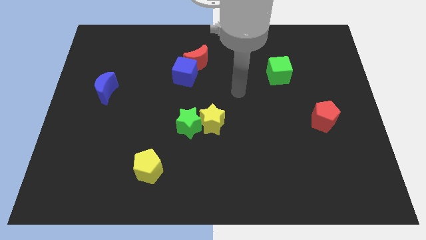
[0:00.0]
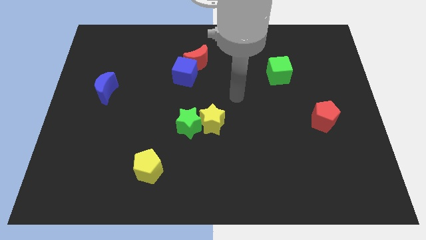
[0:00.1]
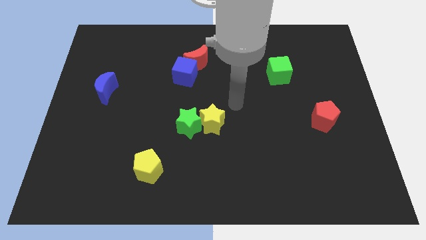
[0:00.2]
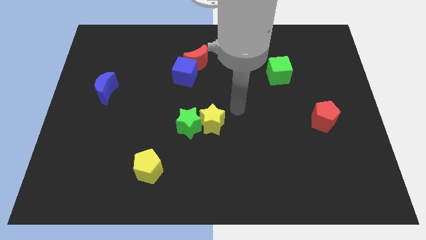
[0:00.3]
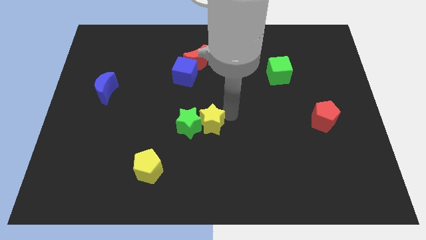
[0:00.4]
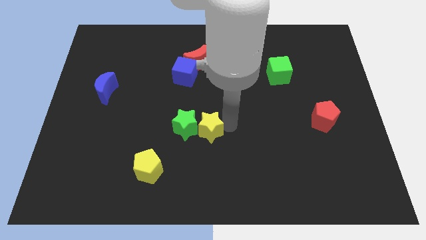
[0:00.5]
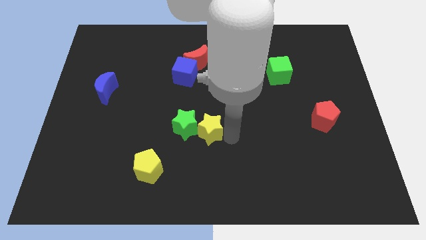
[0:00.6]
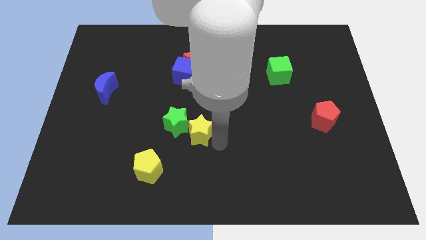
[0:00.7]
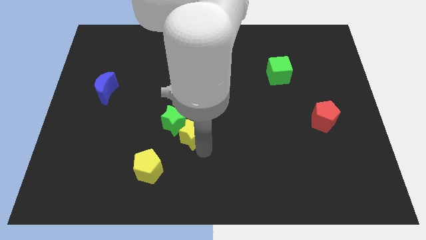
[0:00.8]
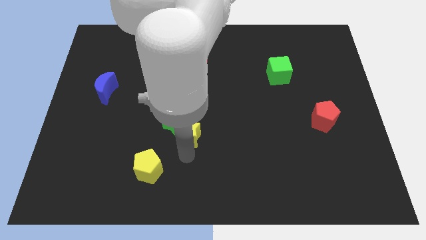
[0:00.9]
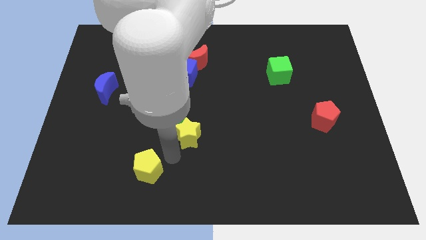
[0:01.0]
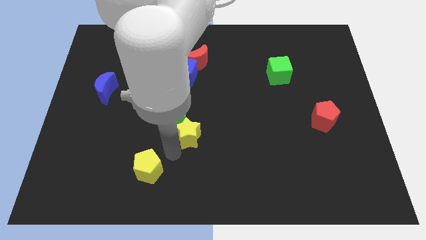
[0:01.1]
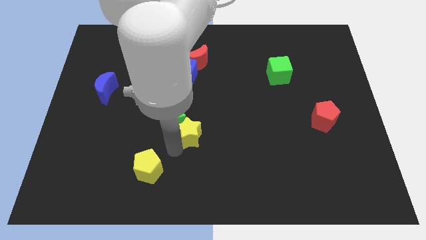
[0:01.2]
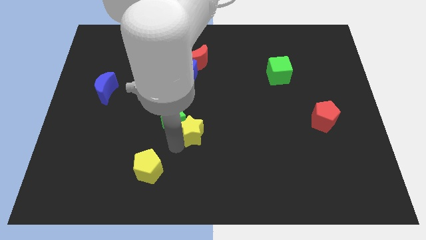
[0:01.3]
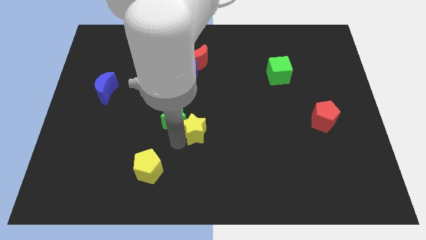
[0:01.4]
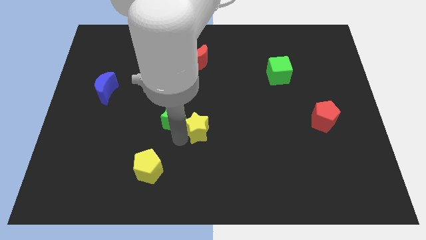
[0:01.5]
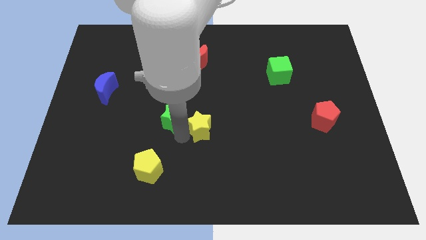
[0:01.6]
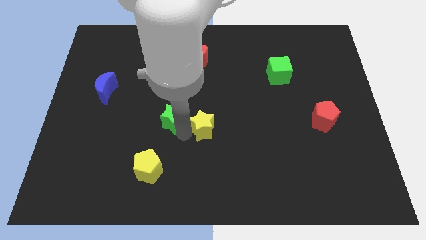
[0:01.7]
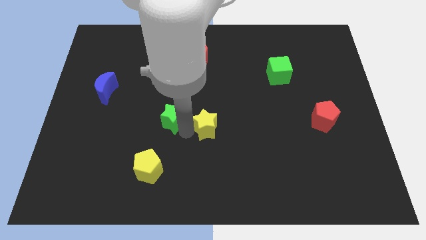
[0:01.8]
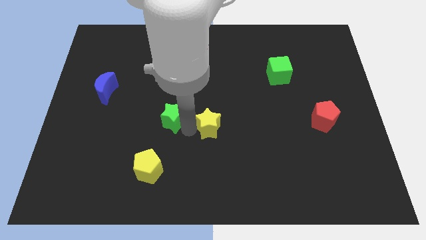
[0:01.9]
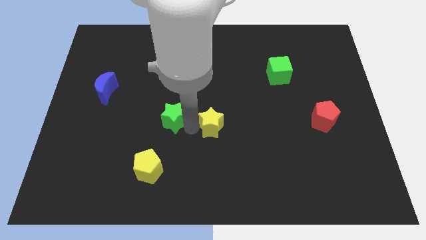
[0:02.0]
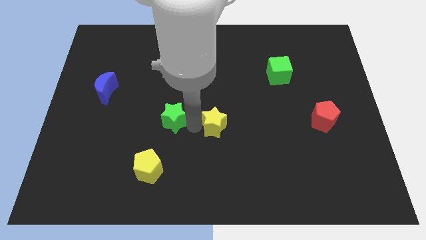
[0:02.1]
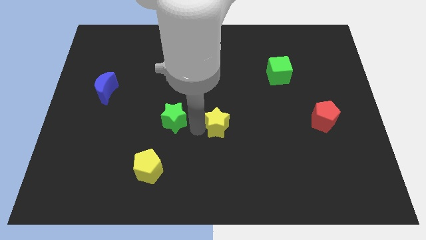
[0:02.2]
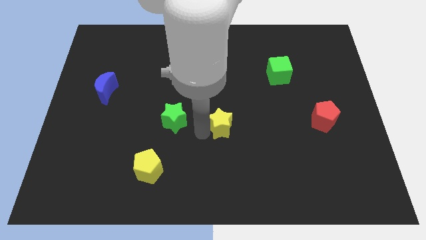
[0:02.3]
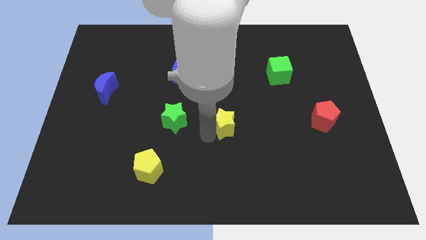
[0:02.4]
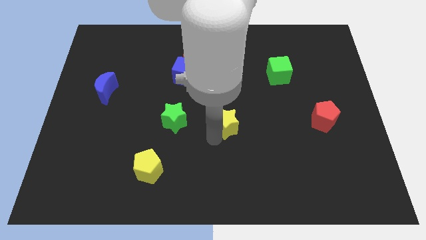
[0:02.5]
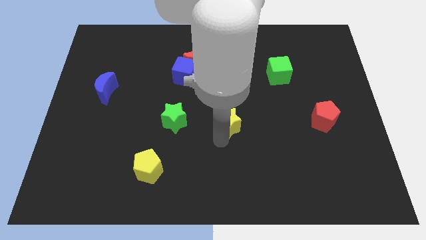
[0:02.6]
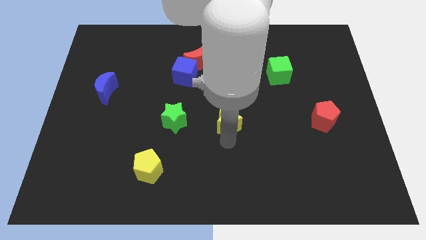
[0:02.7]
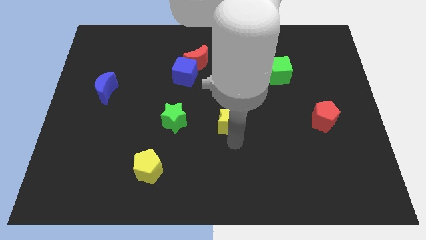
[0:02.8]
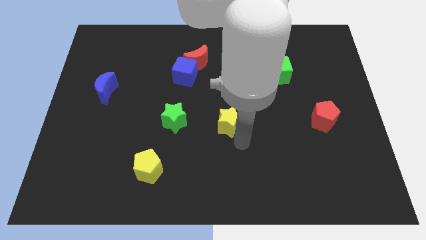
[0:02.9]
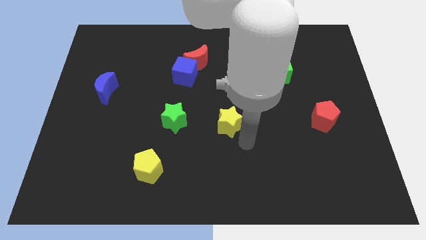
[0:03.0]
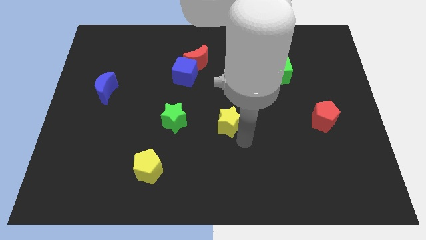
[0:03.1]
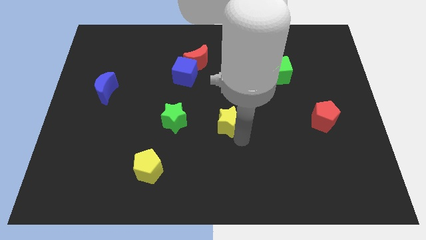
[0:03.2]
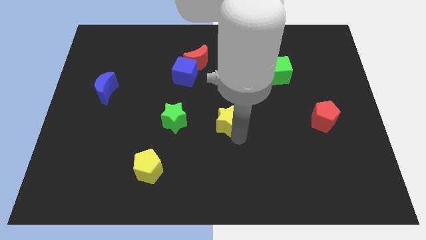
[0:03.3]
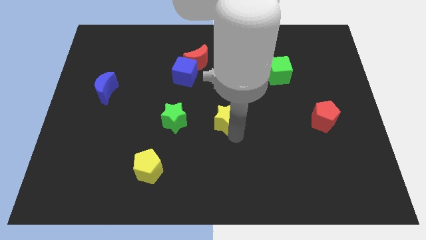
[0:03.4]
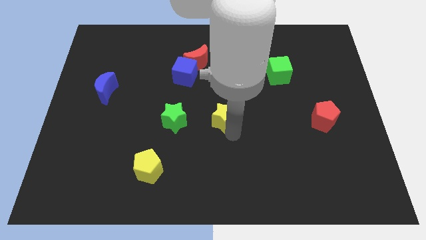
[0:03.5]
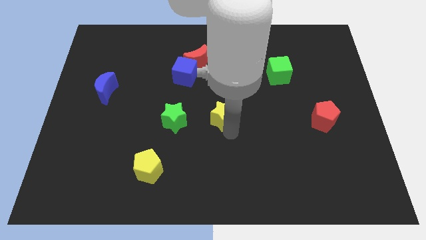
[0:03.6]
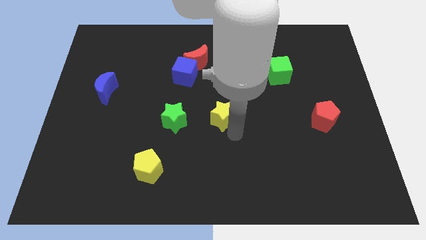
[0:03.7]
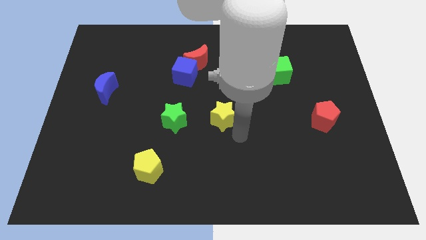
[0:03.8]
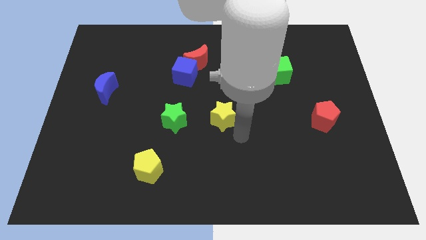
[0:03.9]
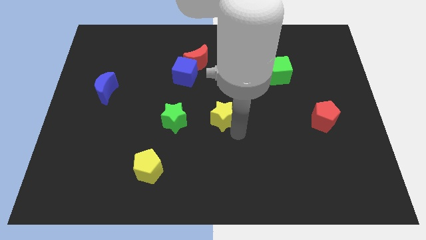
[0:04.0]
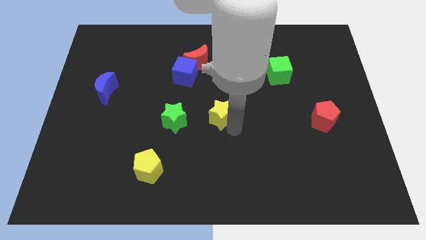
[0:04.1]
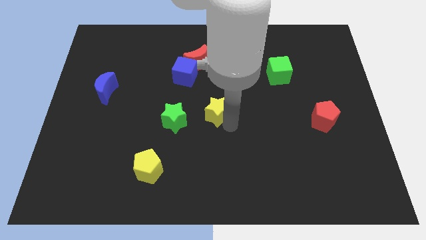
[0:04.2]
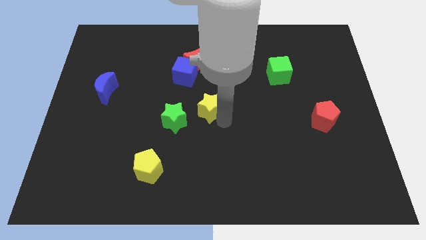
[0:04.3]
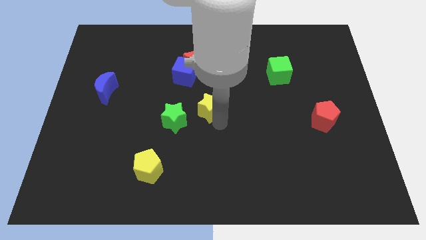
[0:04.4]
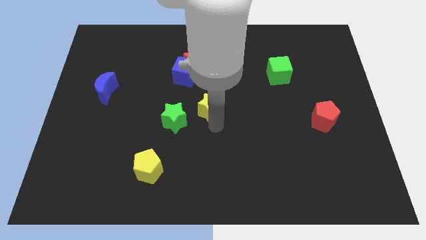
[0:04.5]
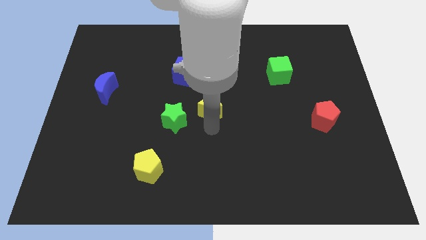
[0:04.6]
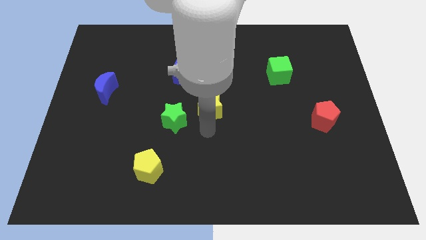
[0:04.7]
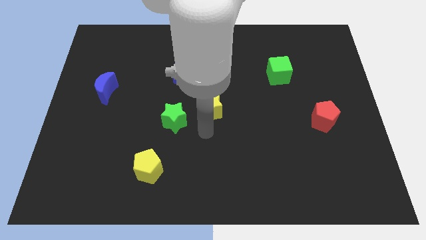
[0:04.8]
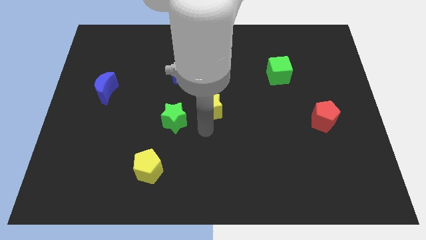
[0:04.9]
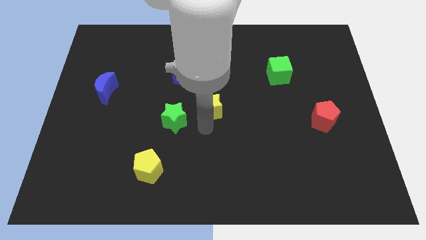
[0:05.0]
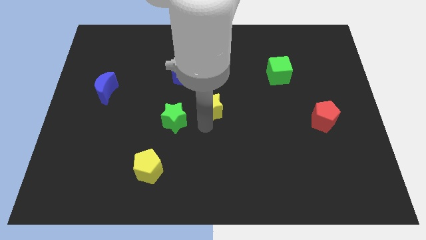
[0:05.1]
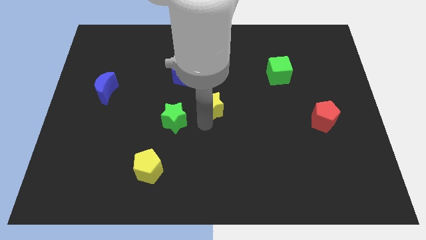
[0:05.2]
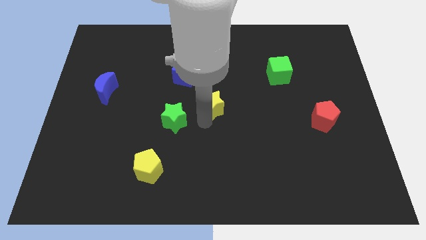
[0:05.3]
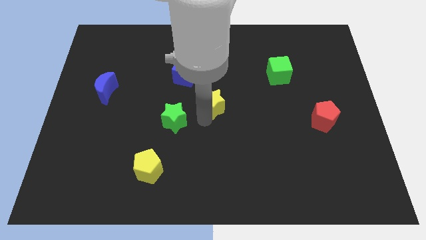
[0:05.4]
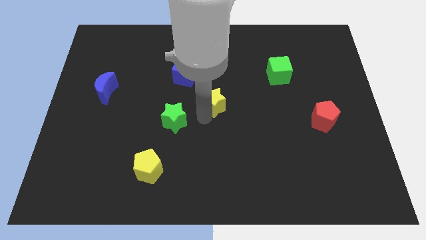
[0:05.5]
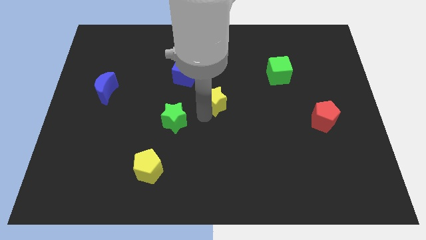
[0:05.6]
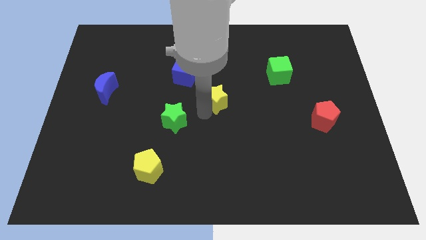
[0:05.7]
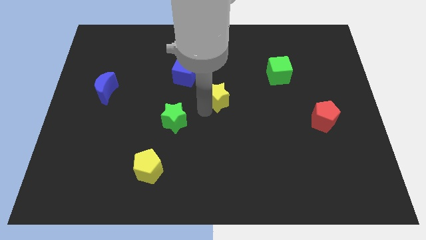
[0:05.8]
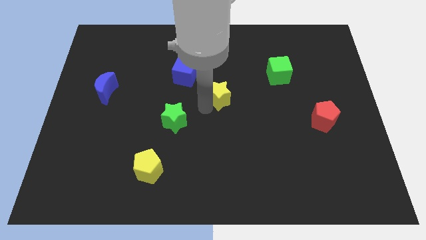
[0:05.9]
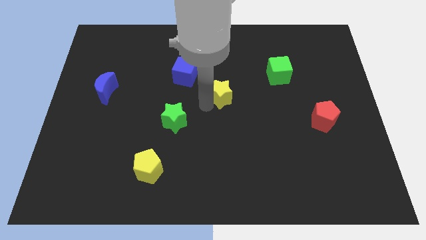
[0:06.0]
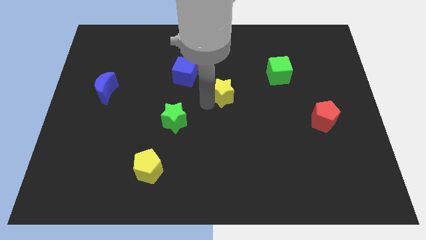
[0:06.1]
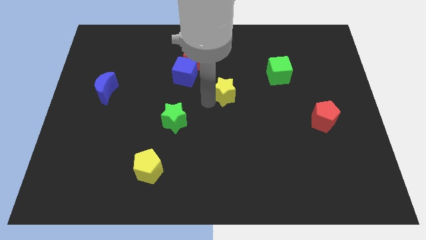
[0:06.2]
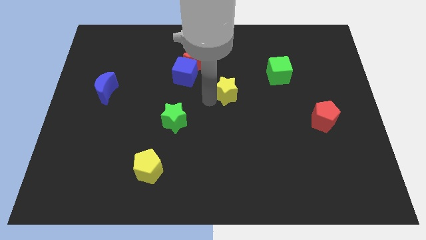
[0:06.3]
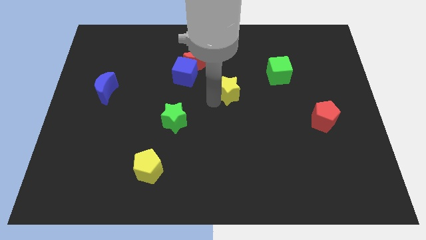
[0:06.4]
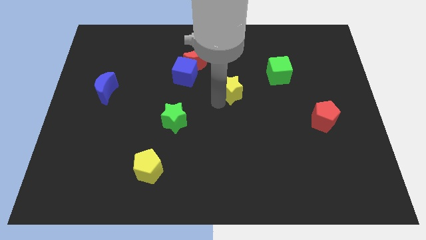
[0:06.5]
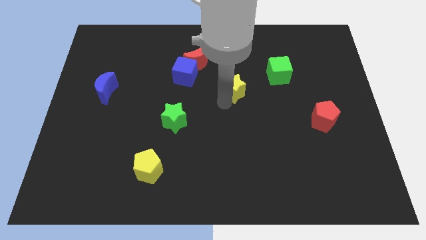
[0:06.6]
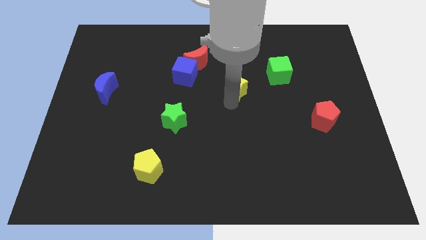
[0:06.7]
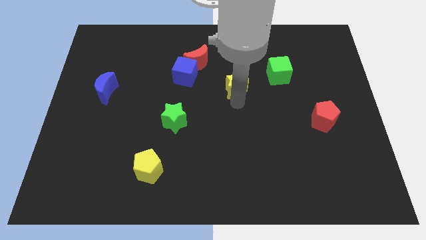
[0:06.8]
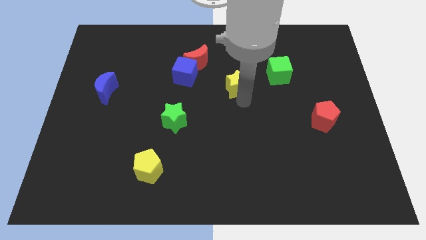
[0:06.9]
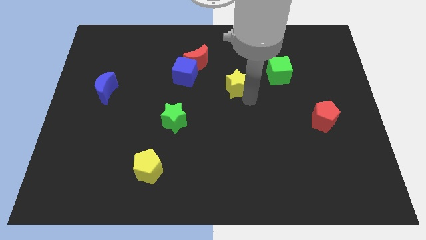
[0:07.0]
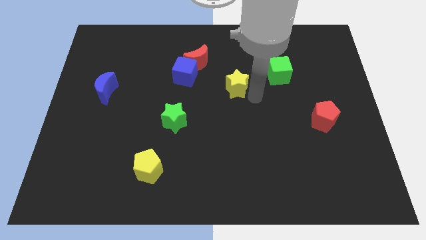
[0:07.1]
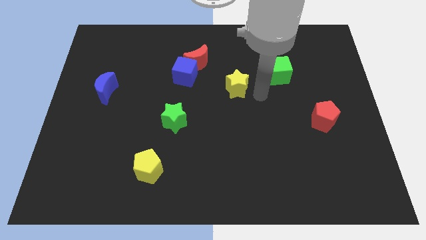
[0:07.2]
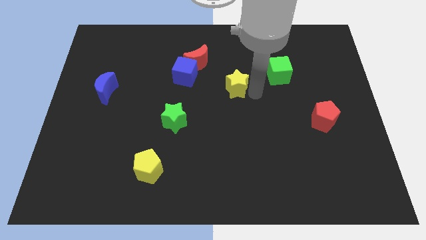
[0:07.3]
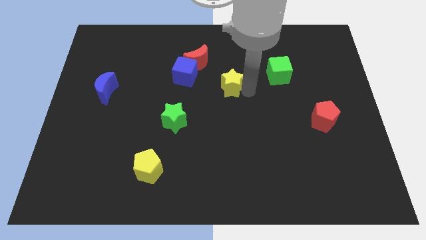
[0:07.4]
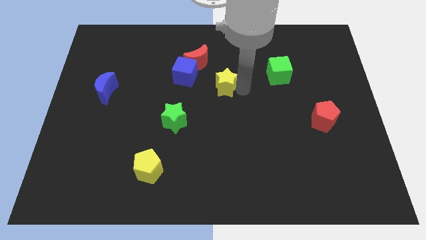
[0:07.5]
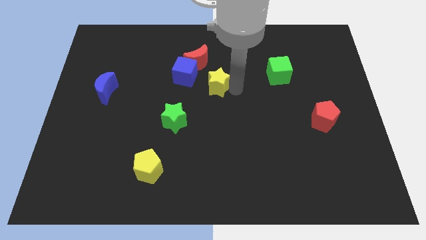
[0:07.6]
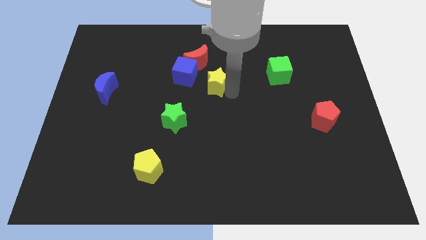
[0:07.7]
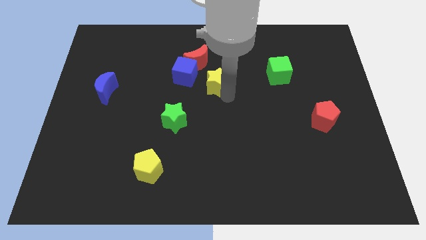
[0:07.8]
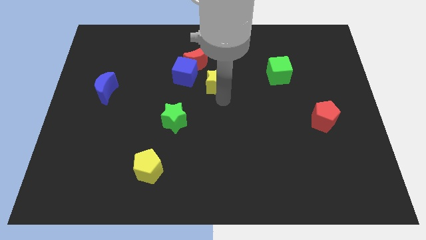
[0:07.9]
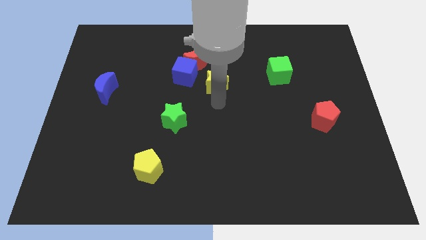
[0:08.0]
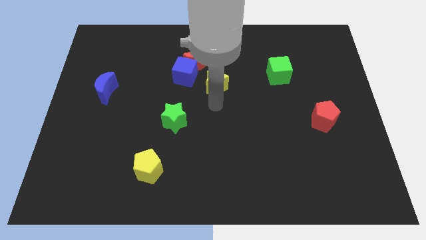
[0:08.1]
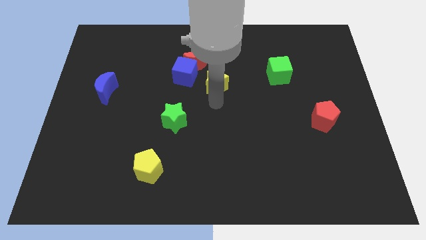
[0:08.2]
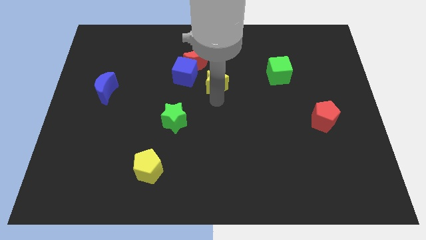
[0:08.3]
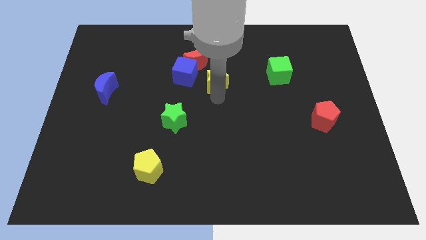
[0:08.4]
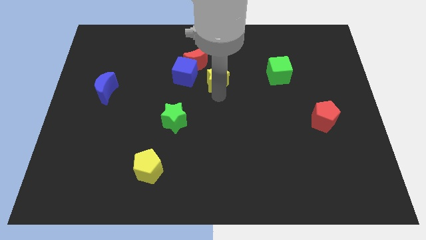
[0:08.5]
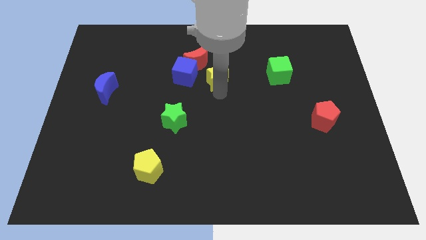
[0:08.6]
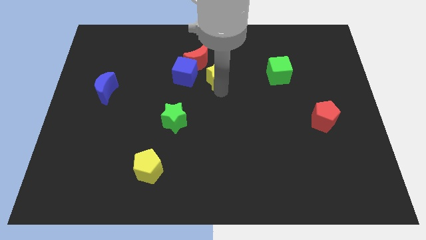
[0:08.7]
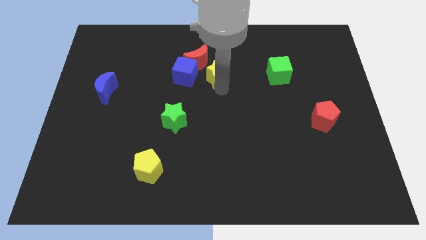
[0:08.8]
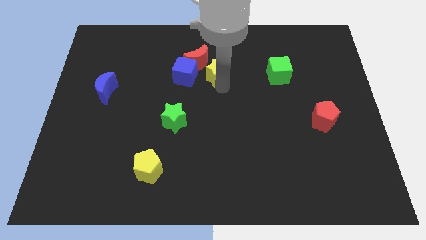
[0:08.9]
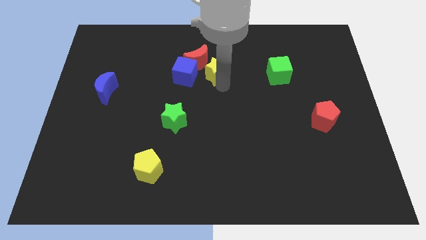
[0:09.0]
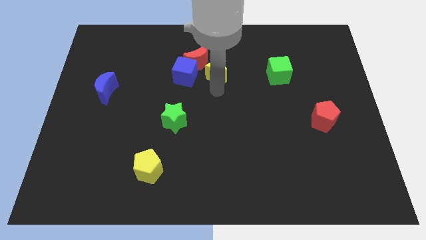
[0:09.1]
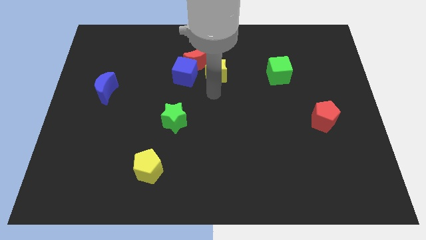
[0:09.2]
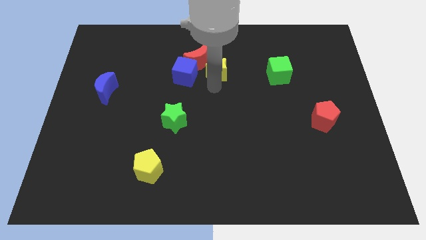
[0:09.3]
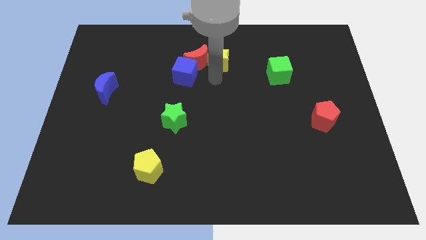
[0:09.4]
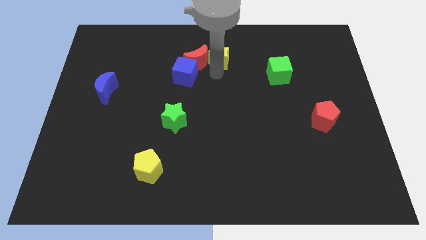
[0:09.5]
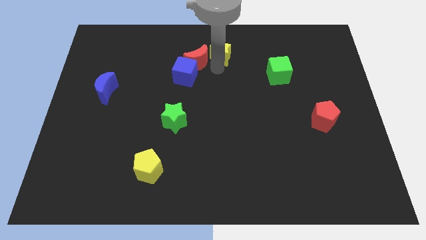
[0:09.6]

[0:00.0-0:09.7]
slide the yellow star to the top
